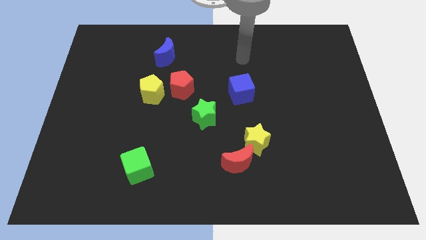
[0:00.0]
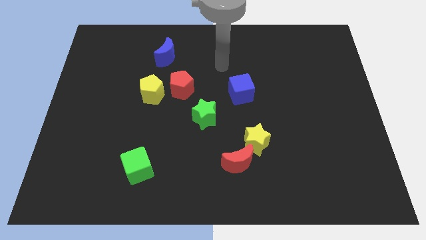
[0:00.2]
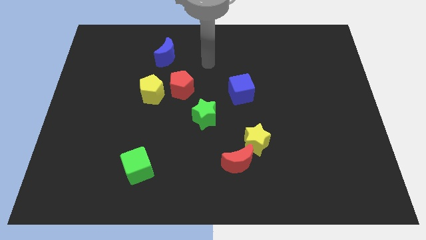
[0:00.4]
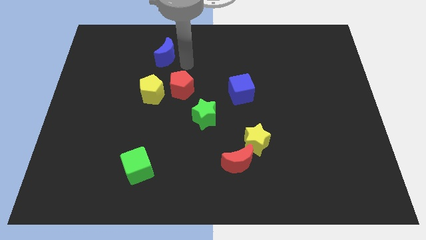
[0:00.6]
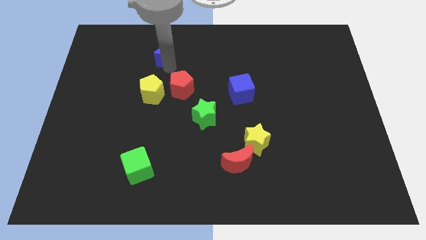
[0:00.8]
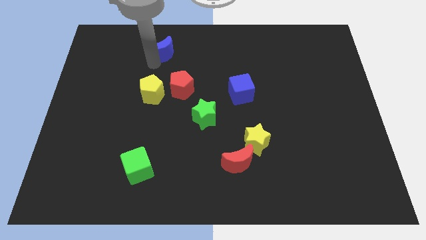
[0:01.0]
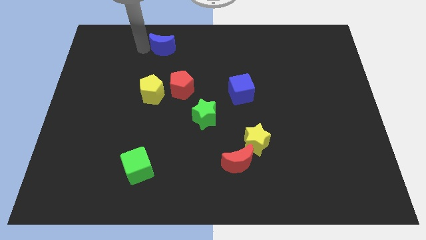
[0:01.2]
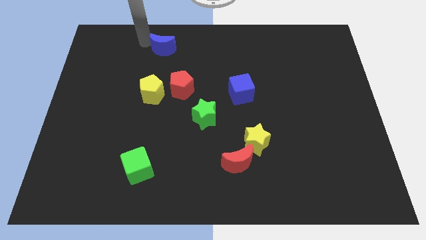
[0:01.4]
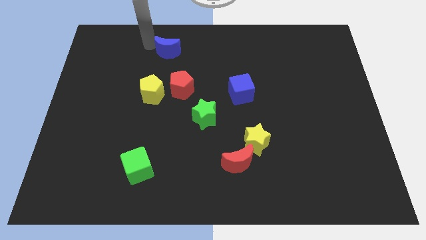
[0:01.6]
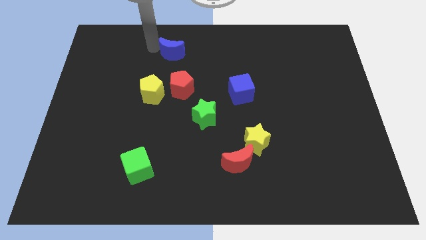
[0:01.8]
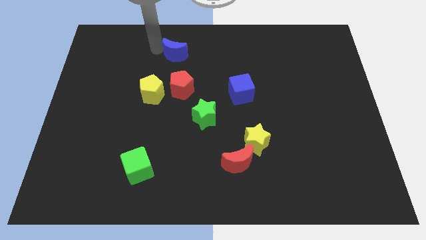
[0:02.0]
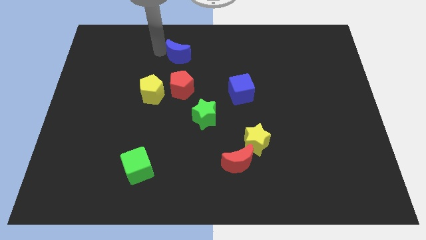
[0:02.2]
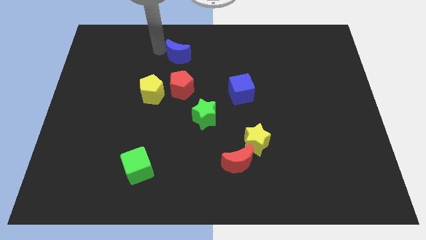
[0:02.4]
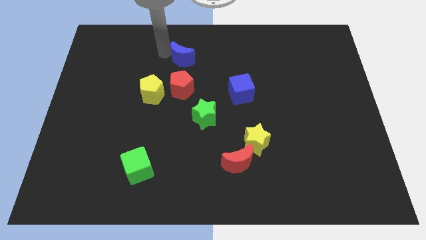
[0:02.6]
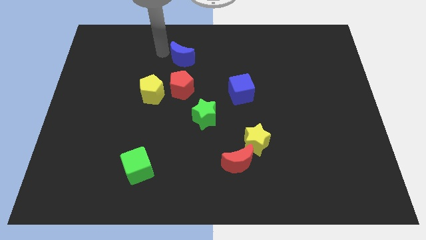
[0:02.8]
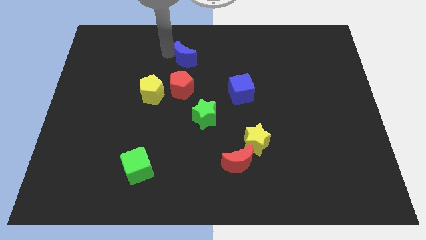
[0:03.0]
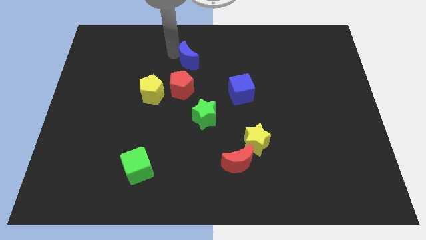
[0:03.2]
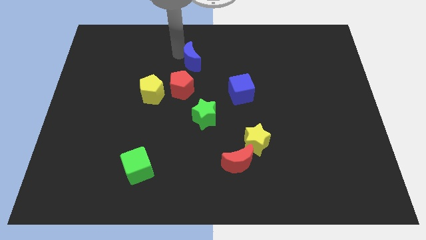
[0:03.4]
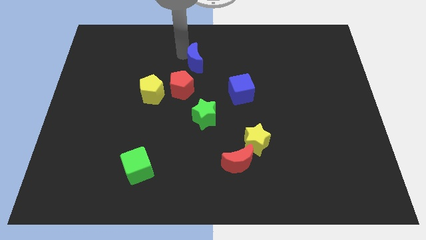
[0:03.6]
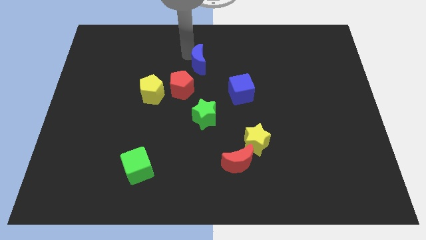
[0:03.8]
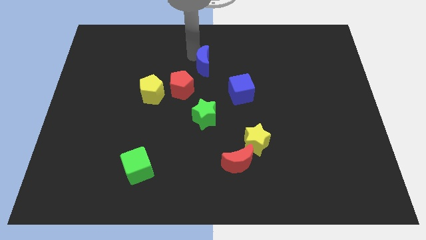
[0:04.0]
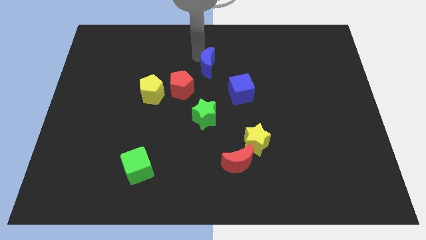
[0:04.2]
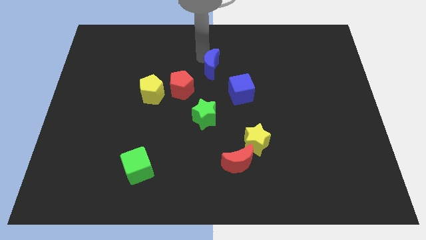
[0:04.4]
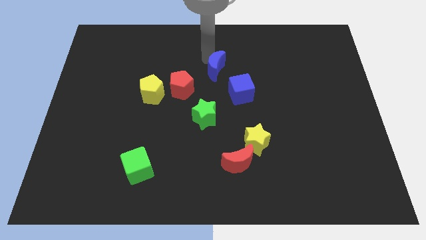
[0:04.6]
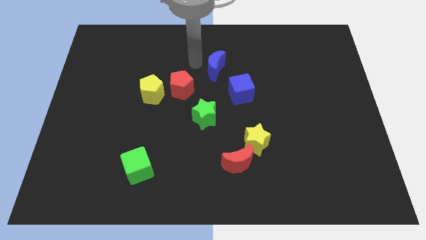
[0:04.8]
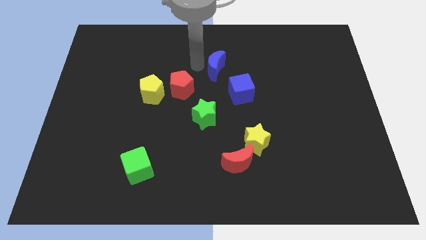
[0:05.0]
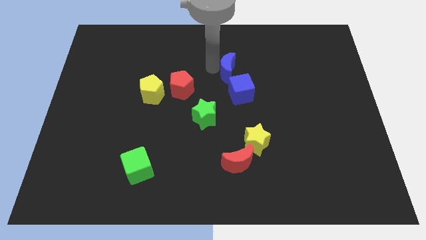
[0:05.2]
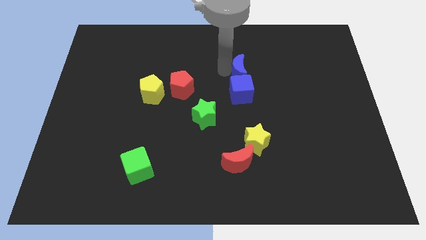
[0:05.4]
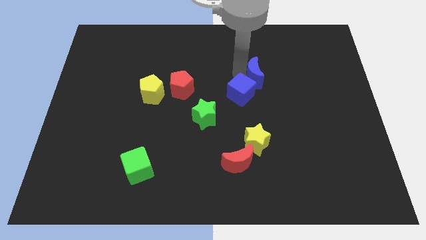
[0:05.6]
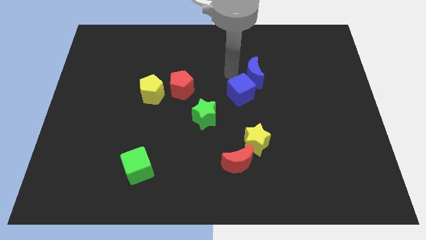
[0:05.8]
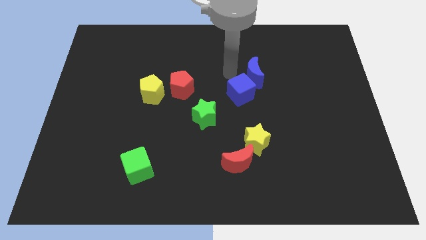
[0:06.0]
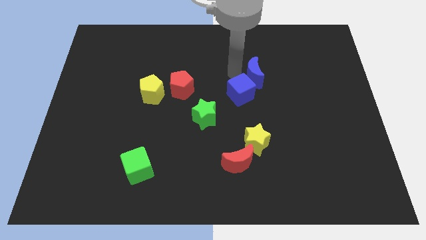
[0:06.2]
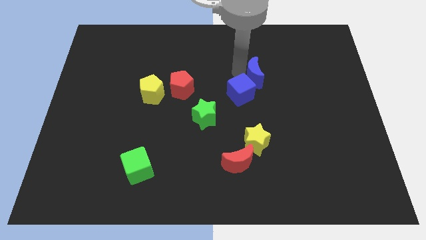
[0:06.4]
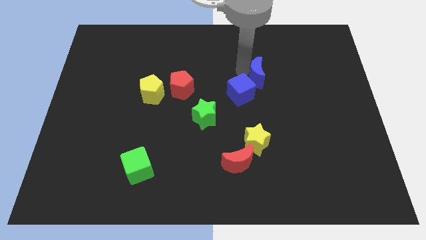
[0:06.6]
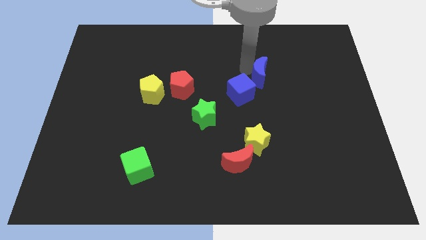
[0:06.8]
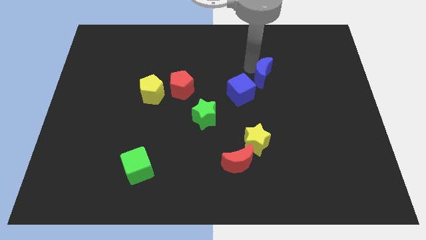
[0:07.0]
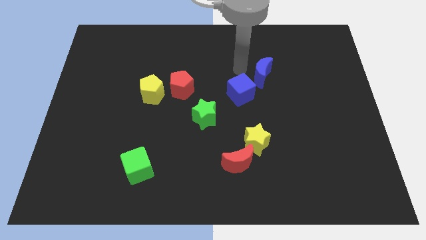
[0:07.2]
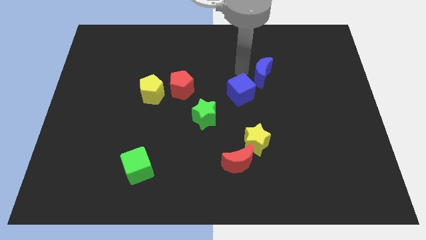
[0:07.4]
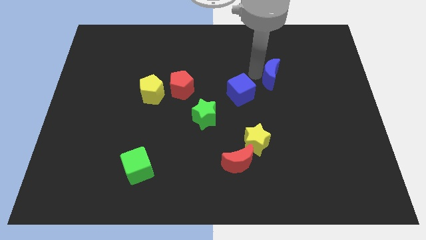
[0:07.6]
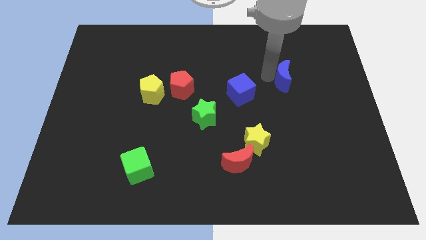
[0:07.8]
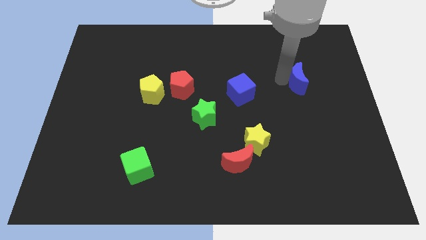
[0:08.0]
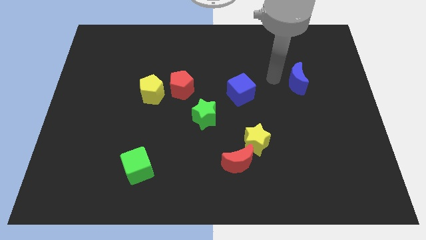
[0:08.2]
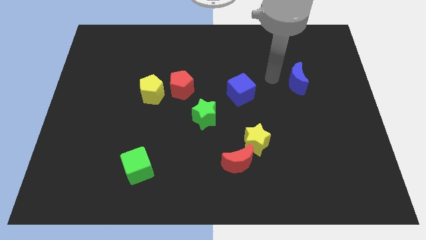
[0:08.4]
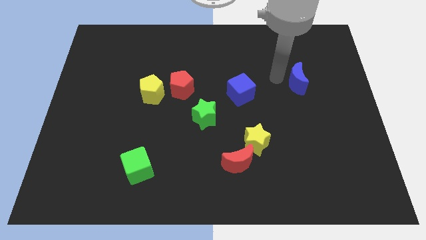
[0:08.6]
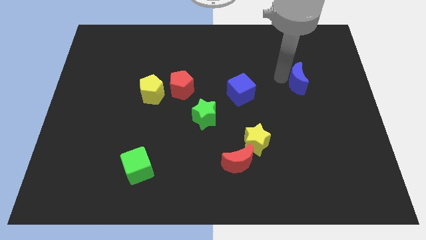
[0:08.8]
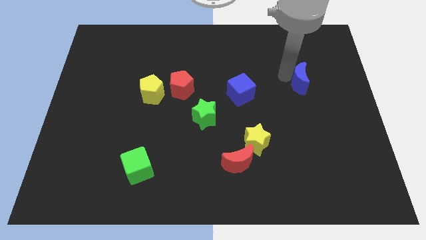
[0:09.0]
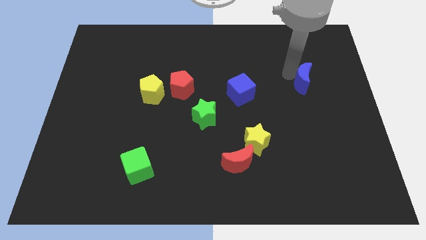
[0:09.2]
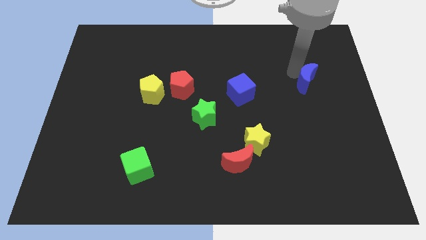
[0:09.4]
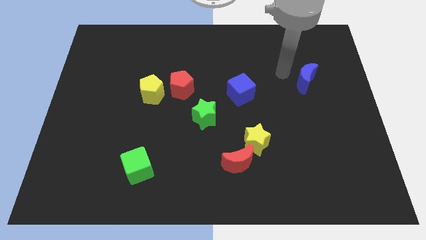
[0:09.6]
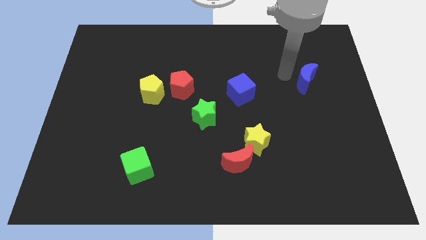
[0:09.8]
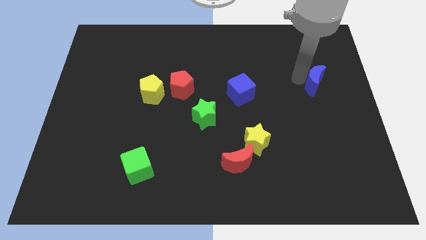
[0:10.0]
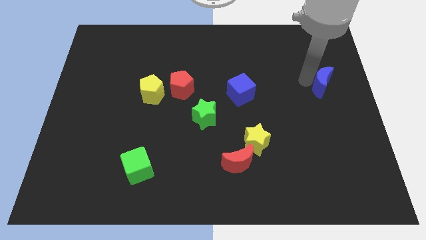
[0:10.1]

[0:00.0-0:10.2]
move the blue moon to the center right

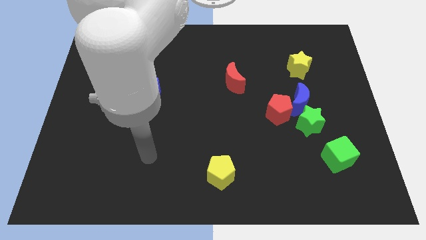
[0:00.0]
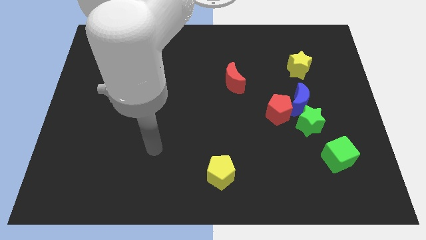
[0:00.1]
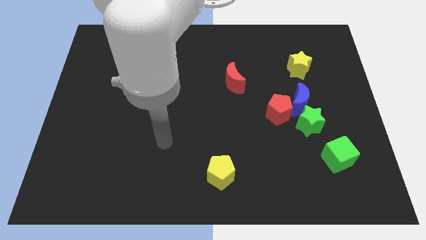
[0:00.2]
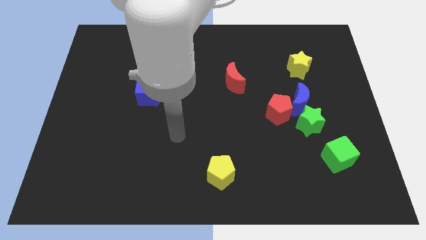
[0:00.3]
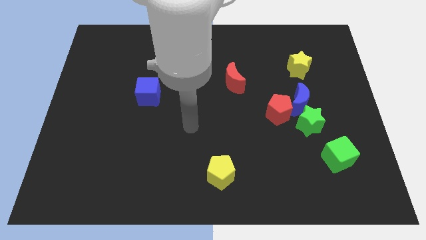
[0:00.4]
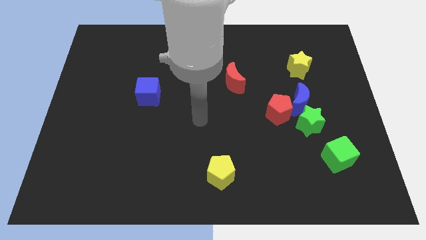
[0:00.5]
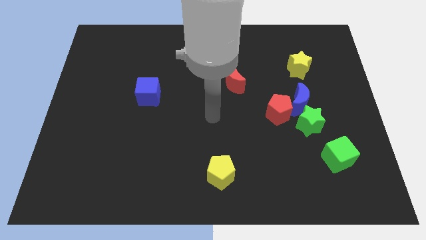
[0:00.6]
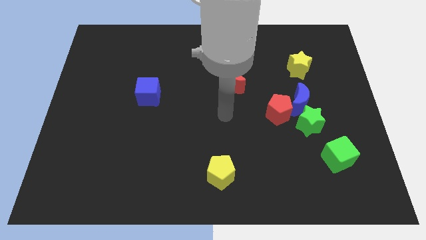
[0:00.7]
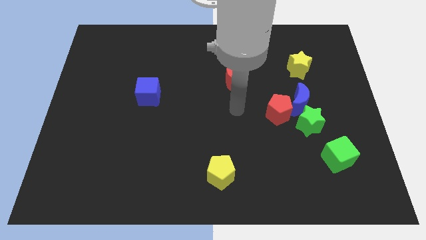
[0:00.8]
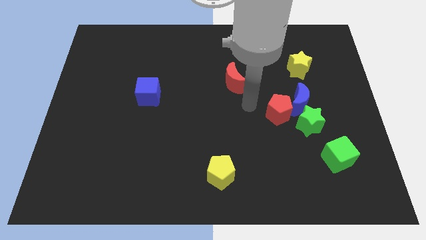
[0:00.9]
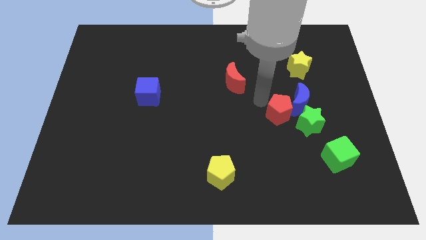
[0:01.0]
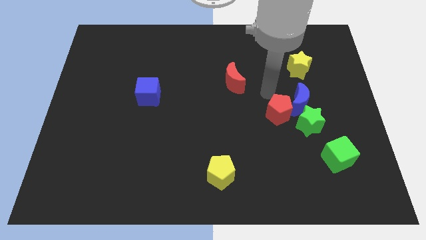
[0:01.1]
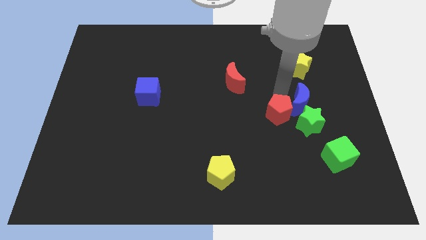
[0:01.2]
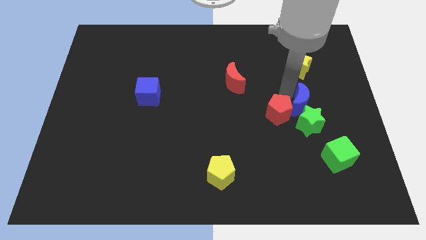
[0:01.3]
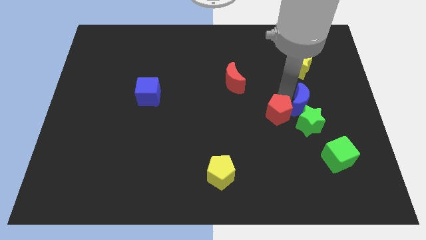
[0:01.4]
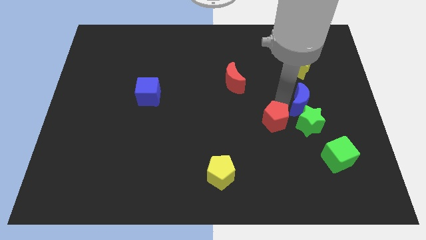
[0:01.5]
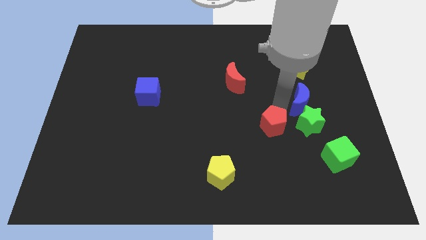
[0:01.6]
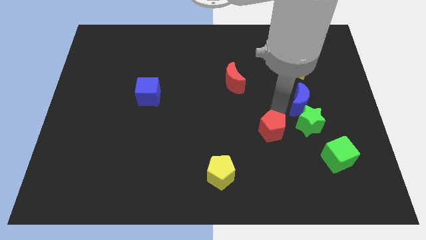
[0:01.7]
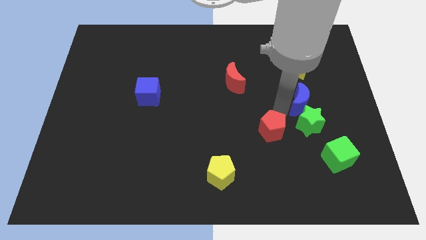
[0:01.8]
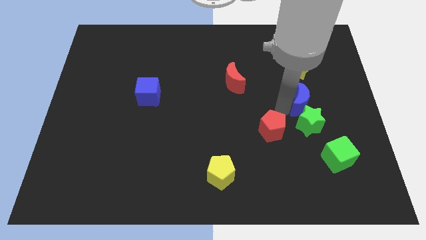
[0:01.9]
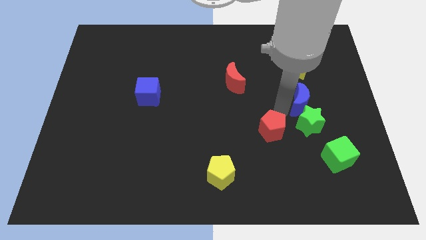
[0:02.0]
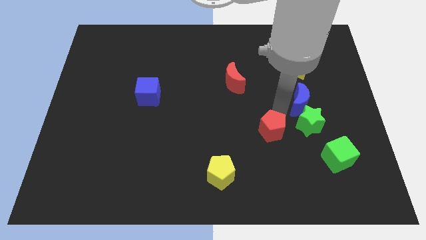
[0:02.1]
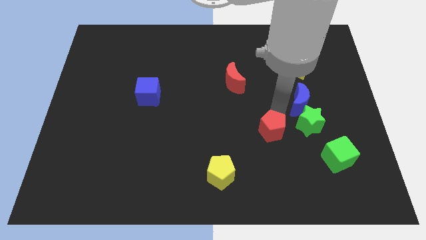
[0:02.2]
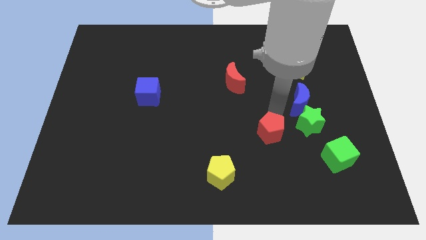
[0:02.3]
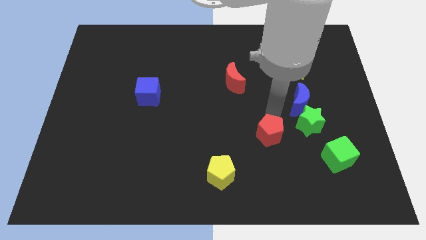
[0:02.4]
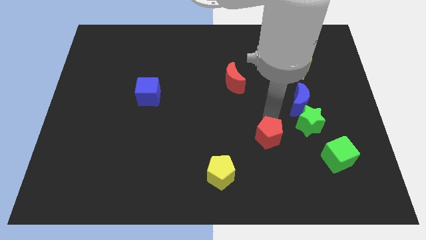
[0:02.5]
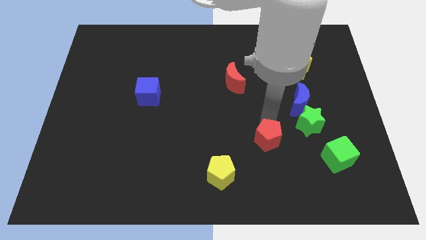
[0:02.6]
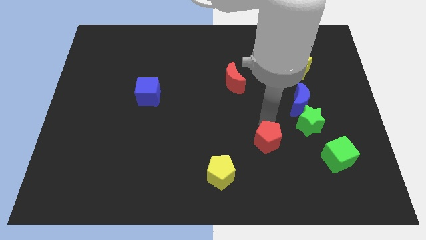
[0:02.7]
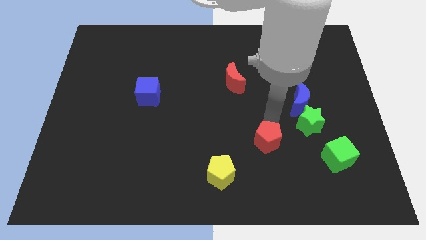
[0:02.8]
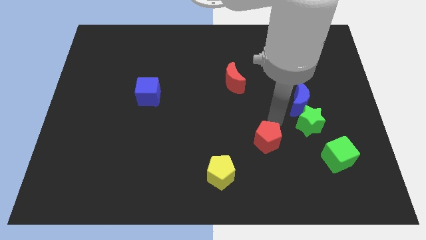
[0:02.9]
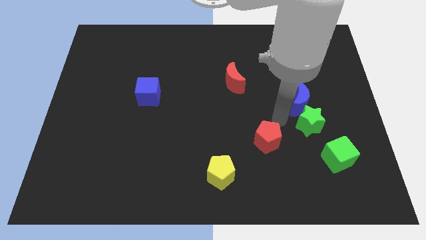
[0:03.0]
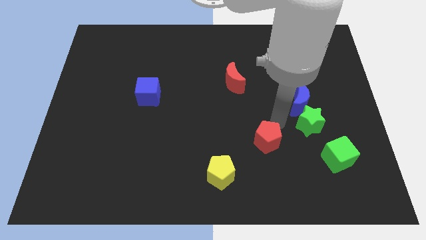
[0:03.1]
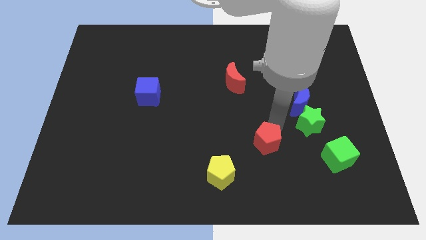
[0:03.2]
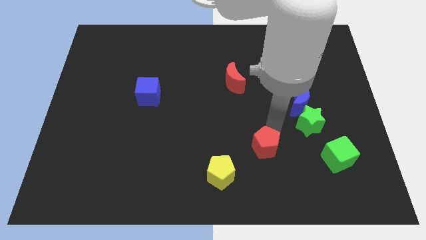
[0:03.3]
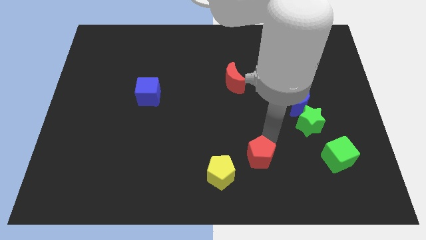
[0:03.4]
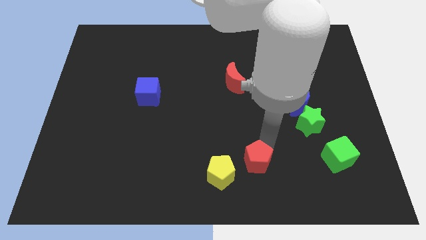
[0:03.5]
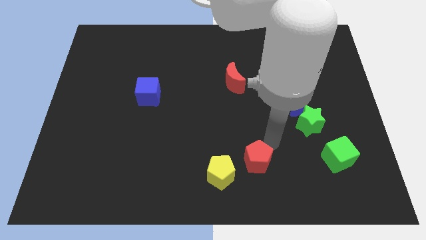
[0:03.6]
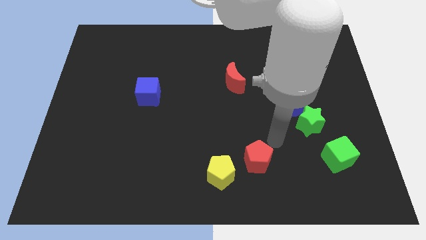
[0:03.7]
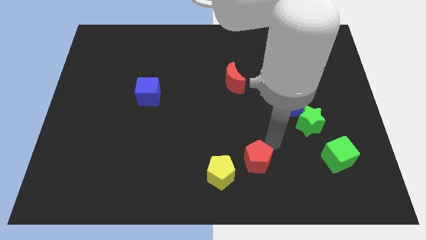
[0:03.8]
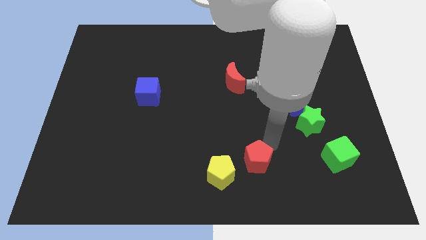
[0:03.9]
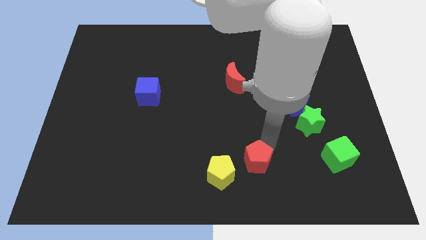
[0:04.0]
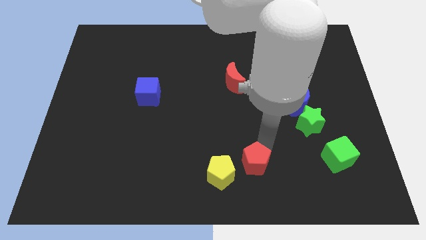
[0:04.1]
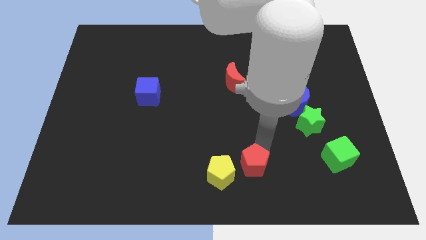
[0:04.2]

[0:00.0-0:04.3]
move the red pentagon to the bottom
